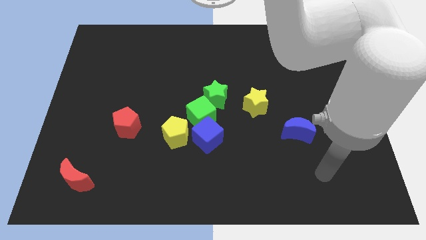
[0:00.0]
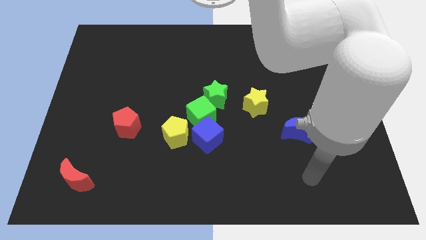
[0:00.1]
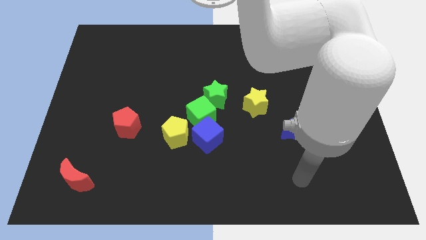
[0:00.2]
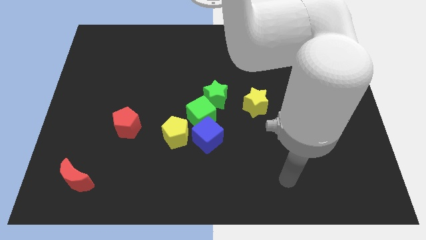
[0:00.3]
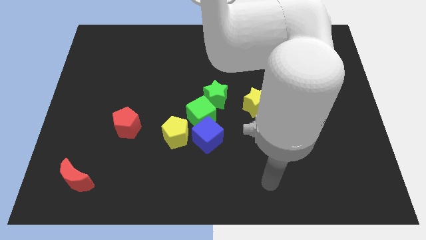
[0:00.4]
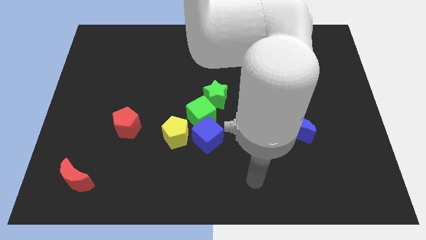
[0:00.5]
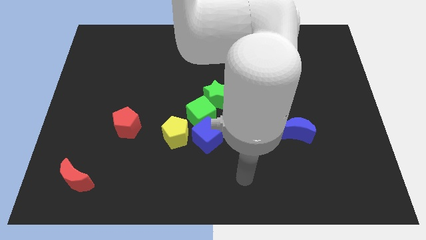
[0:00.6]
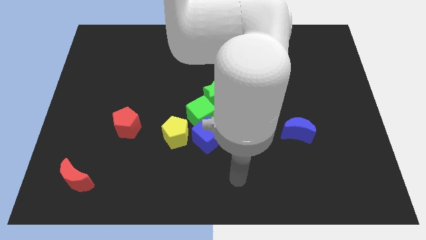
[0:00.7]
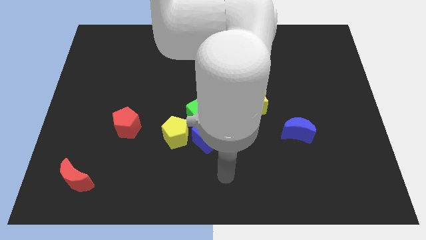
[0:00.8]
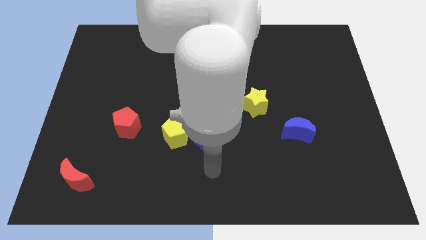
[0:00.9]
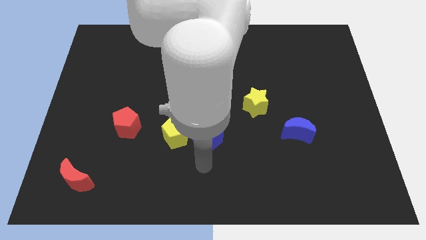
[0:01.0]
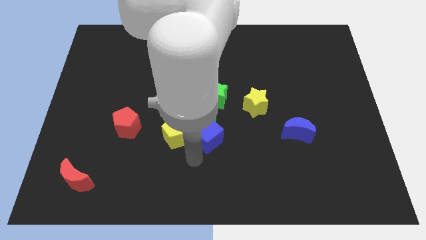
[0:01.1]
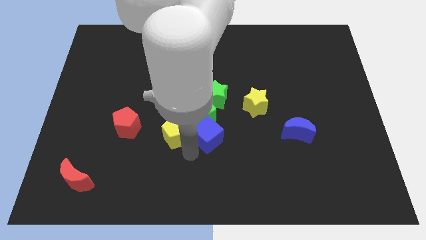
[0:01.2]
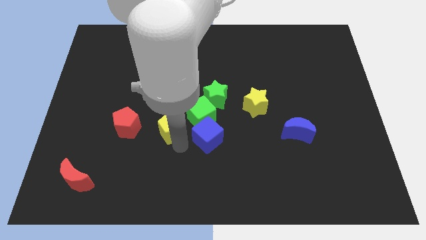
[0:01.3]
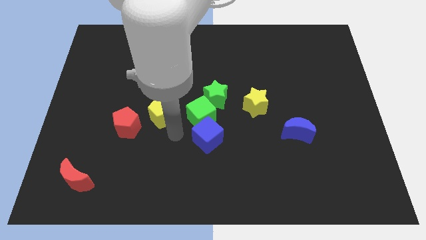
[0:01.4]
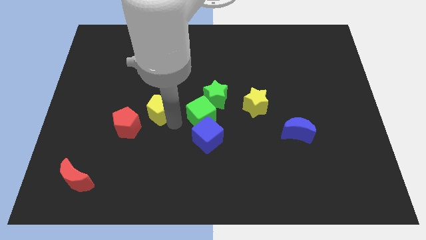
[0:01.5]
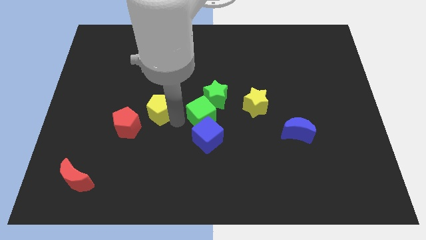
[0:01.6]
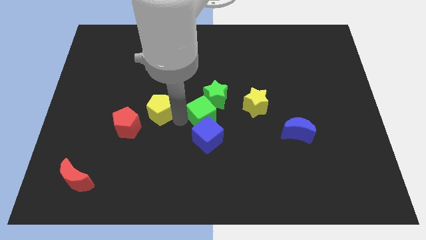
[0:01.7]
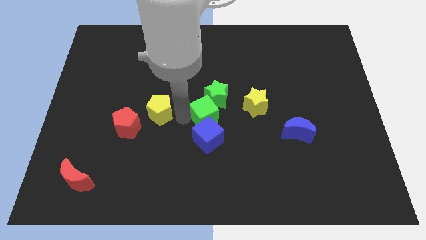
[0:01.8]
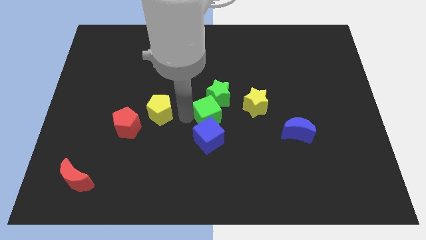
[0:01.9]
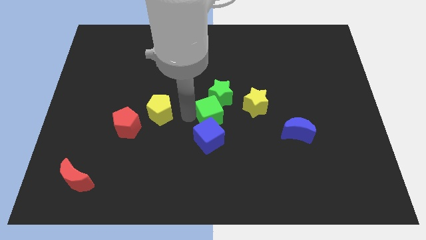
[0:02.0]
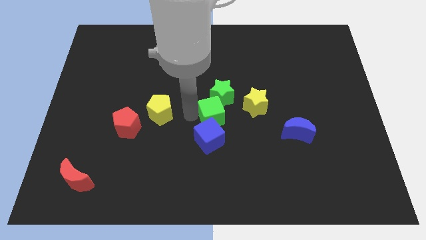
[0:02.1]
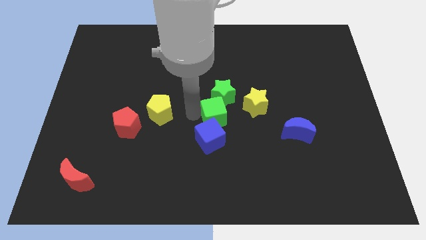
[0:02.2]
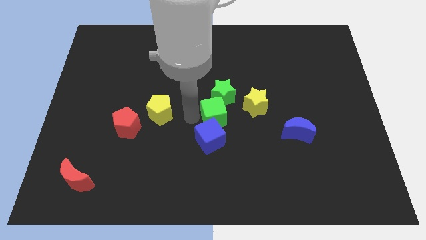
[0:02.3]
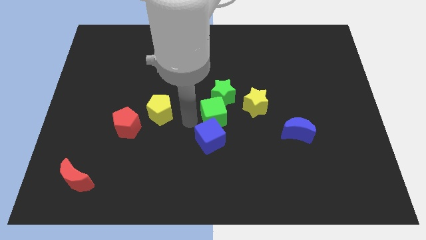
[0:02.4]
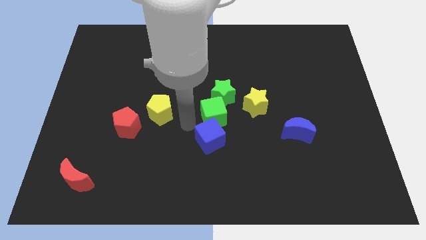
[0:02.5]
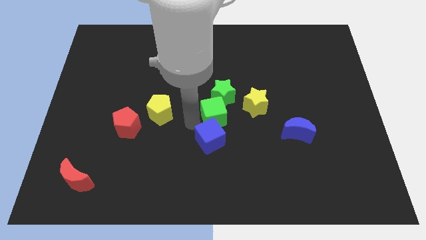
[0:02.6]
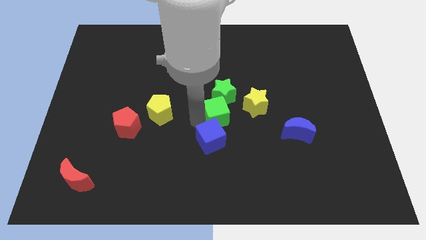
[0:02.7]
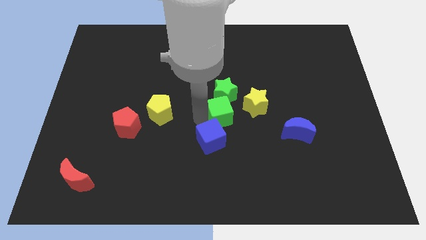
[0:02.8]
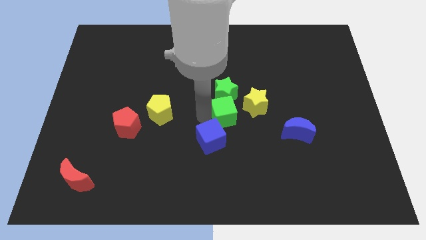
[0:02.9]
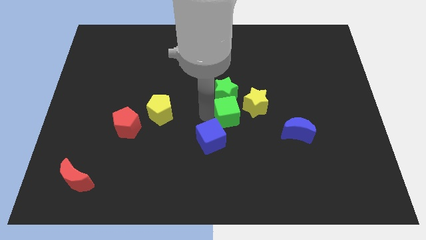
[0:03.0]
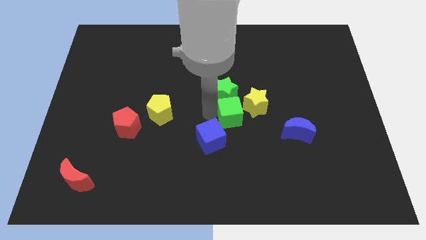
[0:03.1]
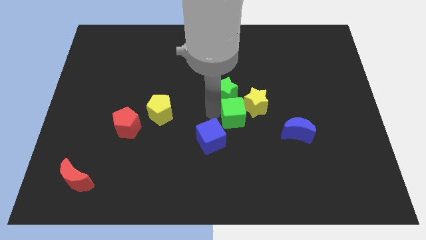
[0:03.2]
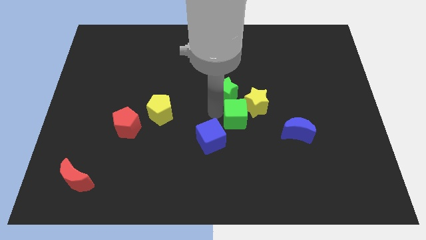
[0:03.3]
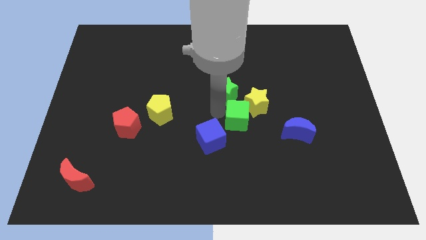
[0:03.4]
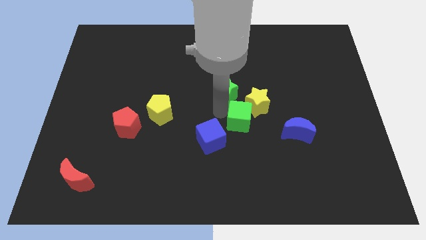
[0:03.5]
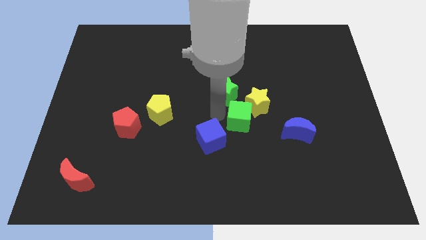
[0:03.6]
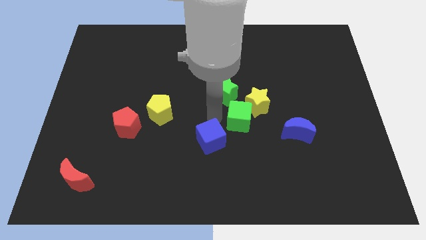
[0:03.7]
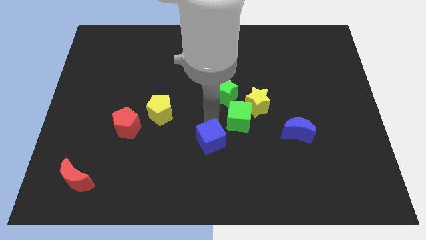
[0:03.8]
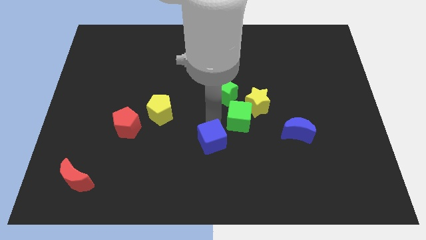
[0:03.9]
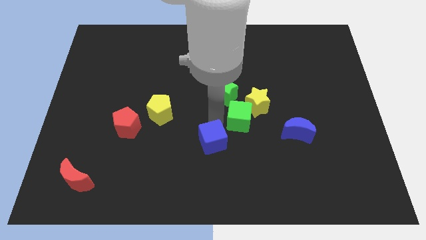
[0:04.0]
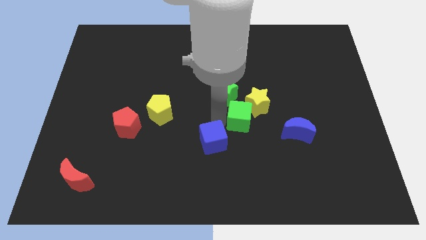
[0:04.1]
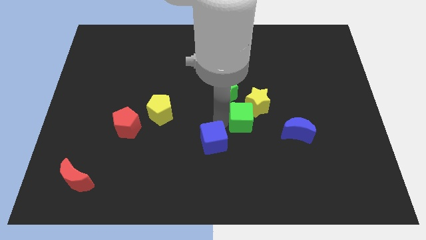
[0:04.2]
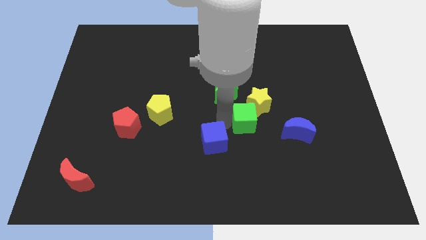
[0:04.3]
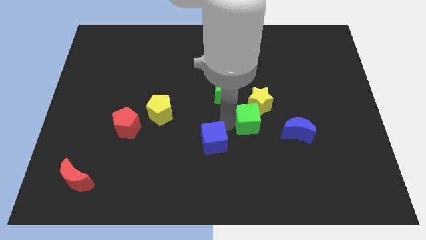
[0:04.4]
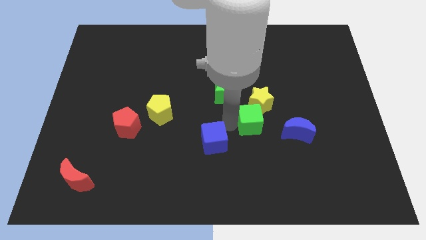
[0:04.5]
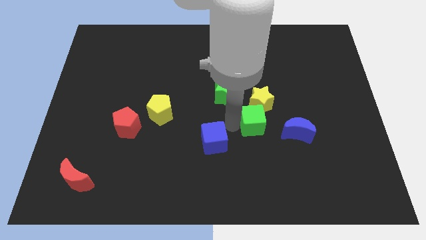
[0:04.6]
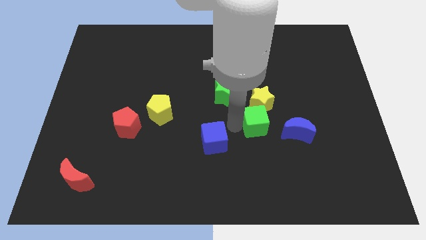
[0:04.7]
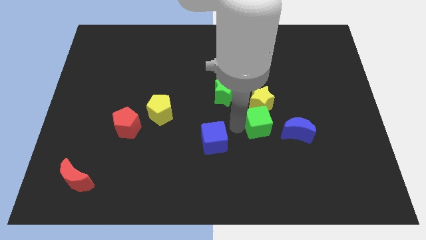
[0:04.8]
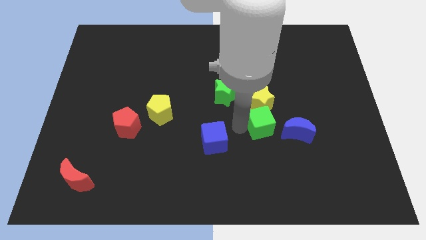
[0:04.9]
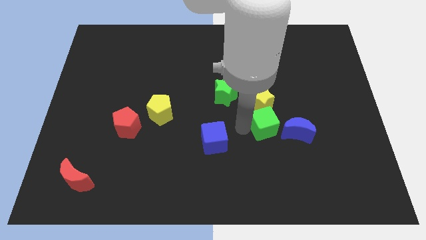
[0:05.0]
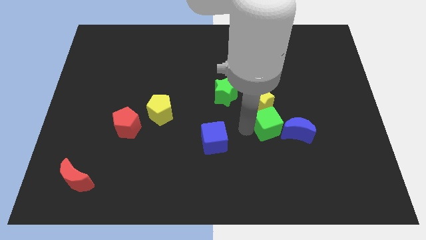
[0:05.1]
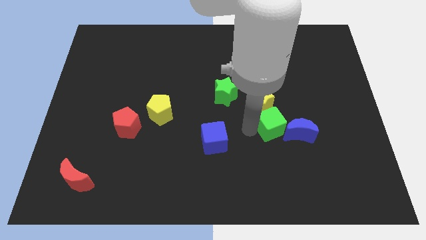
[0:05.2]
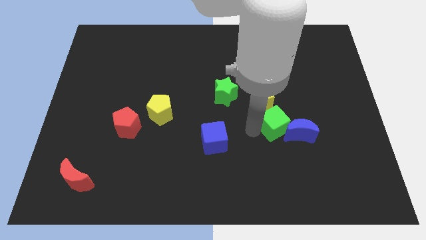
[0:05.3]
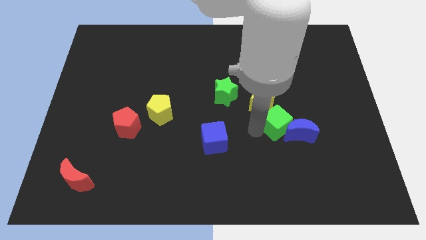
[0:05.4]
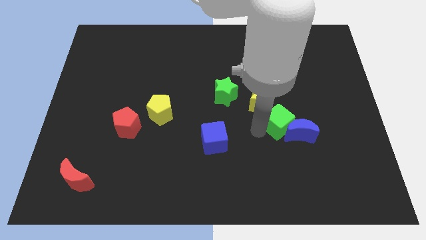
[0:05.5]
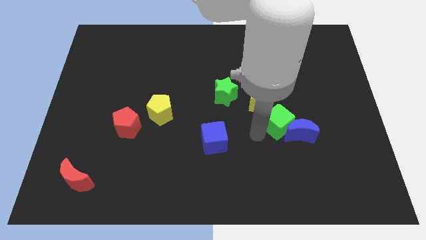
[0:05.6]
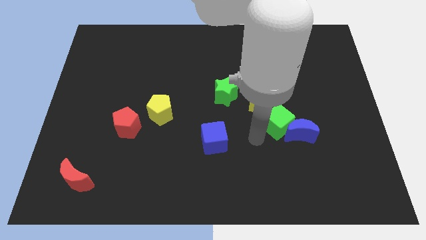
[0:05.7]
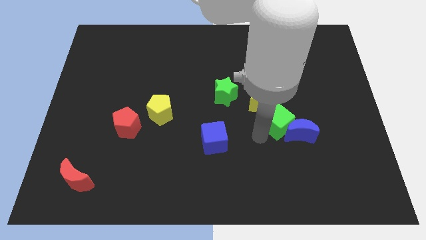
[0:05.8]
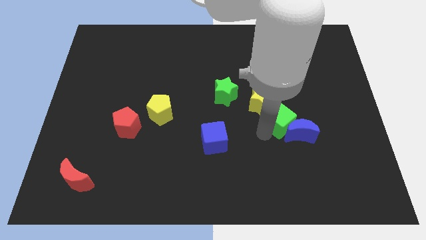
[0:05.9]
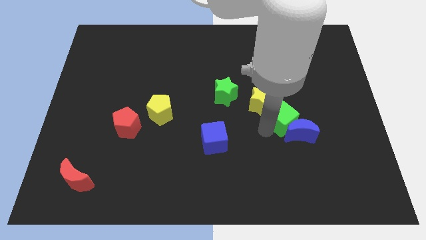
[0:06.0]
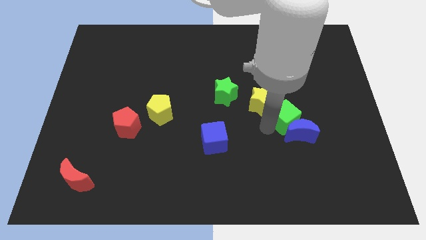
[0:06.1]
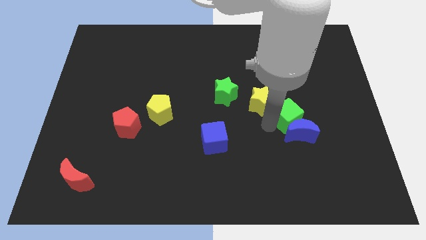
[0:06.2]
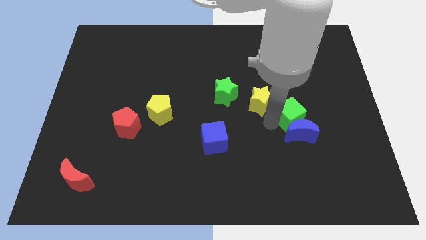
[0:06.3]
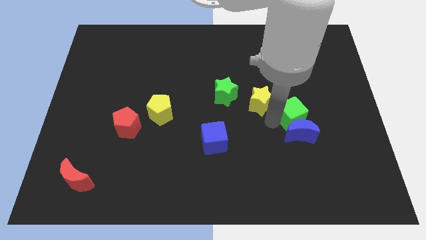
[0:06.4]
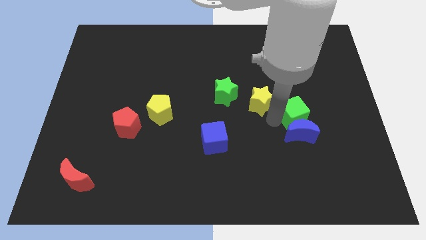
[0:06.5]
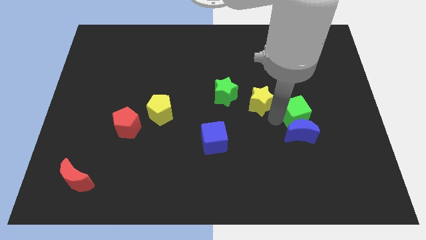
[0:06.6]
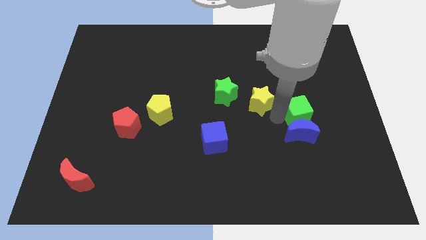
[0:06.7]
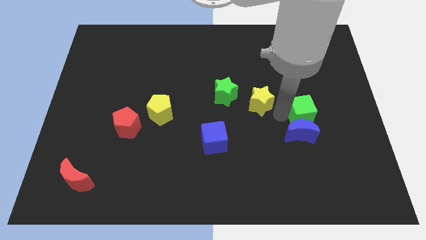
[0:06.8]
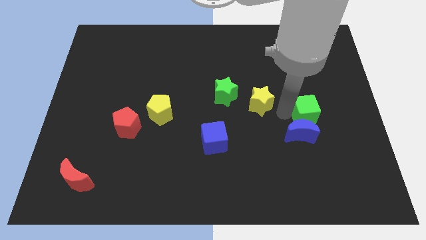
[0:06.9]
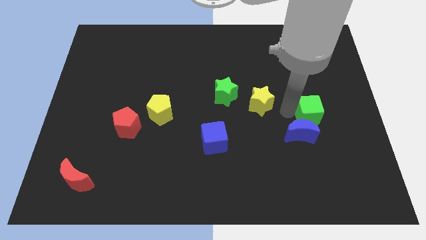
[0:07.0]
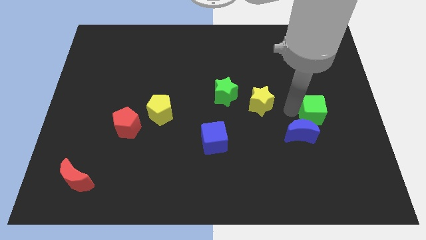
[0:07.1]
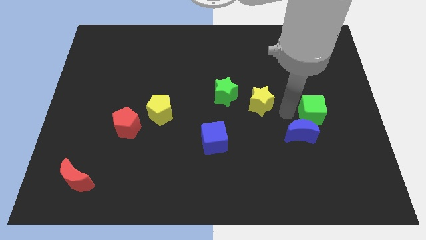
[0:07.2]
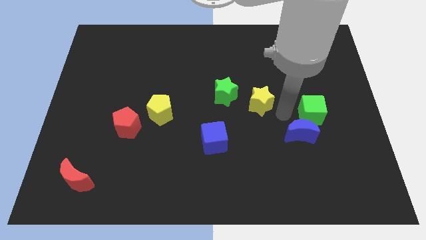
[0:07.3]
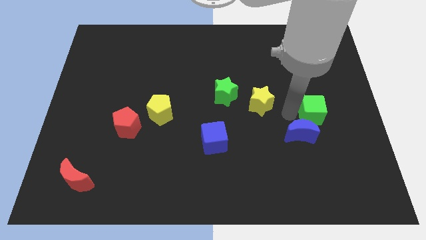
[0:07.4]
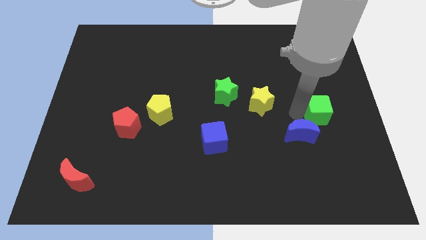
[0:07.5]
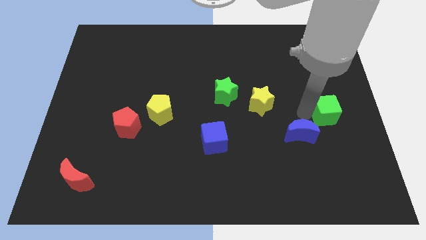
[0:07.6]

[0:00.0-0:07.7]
slide the green cube to the right side
